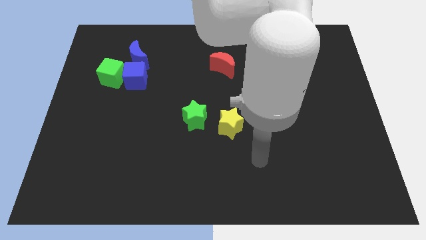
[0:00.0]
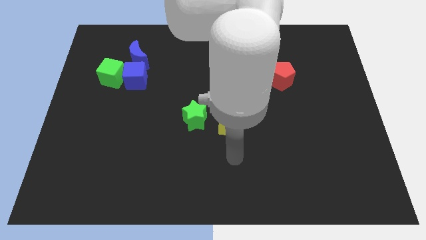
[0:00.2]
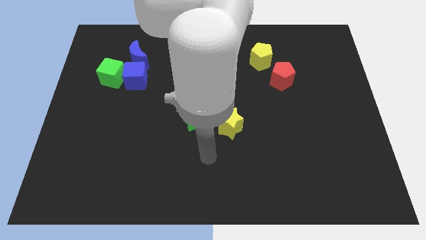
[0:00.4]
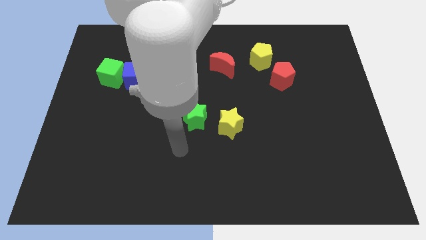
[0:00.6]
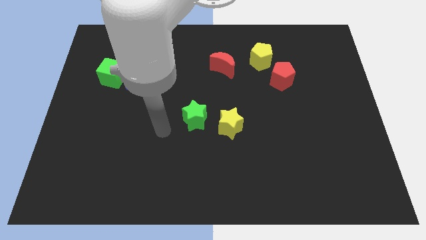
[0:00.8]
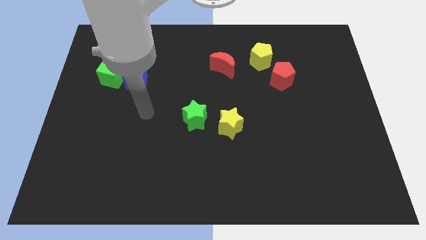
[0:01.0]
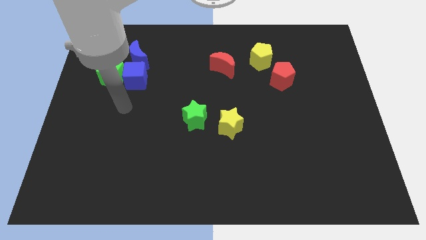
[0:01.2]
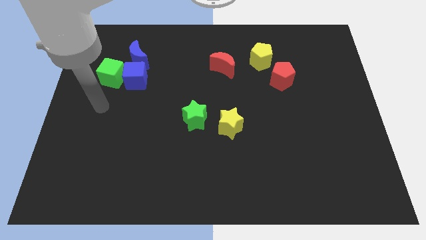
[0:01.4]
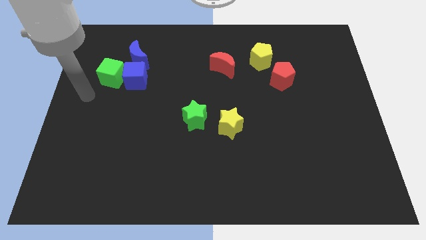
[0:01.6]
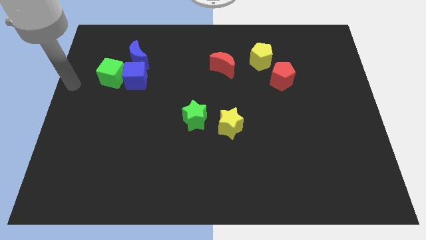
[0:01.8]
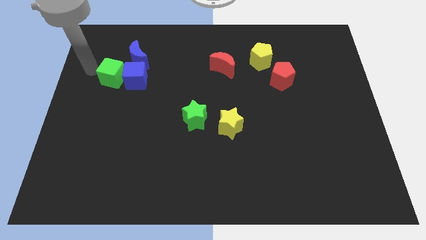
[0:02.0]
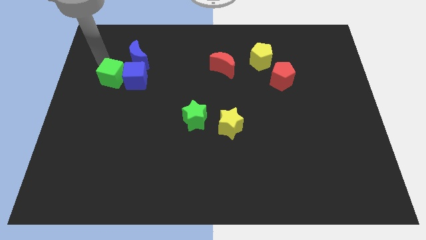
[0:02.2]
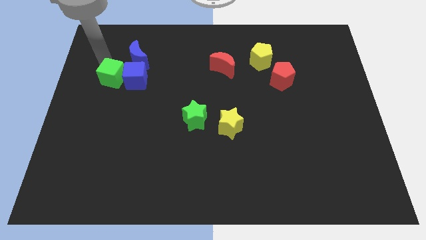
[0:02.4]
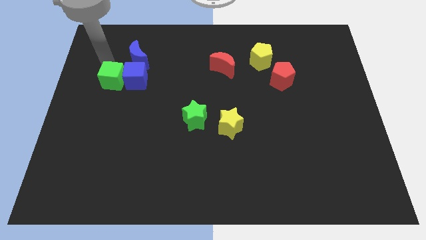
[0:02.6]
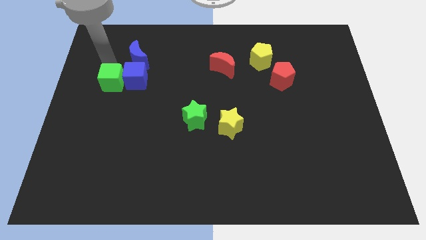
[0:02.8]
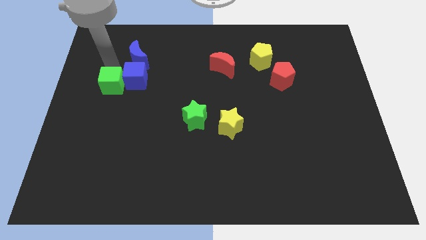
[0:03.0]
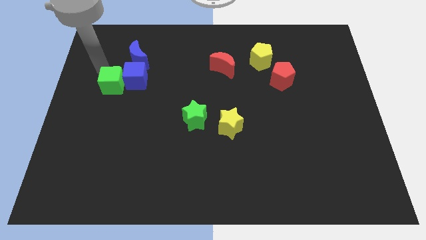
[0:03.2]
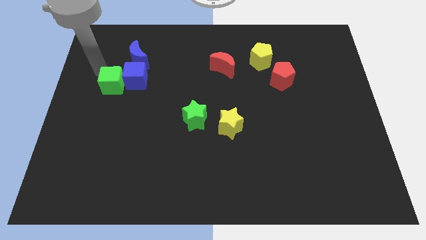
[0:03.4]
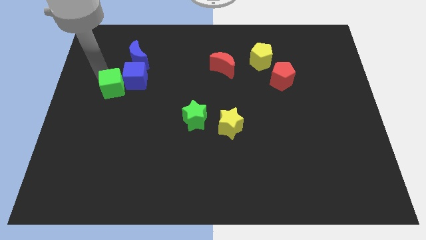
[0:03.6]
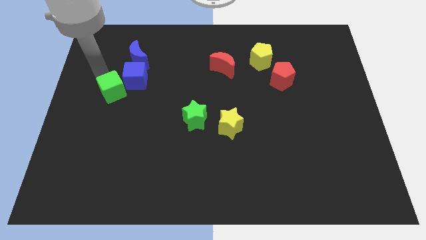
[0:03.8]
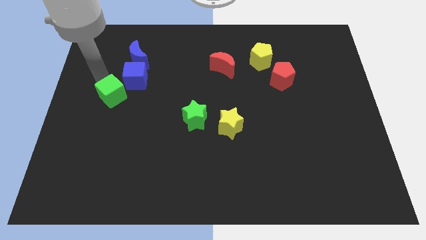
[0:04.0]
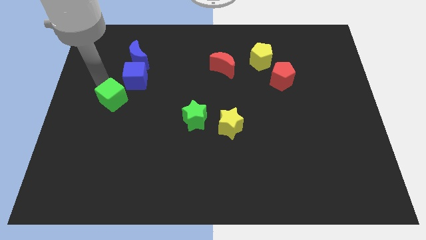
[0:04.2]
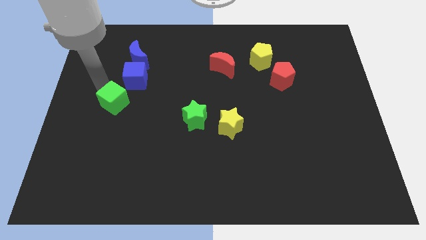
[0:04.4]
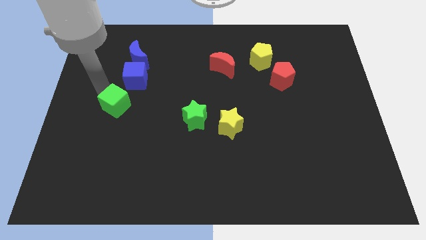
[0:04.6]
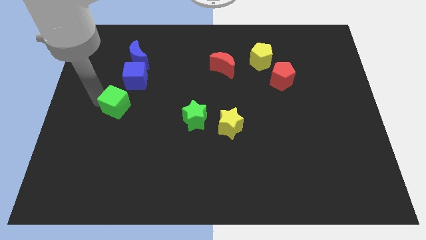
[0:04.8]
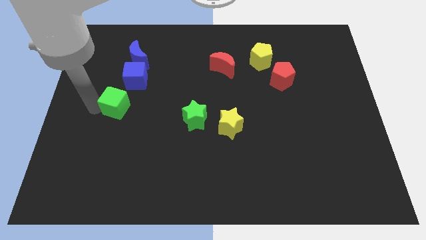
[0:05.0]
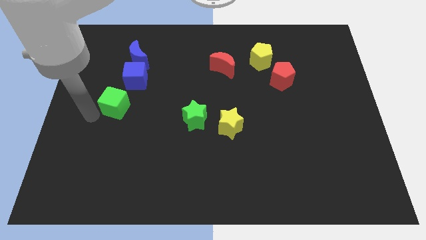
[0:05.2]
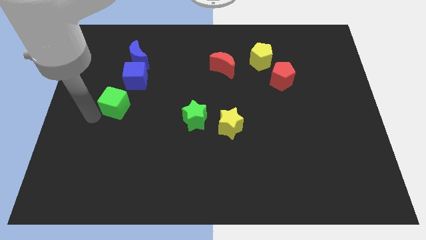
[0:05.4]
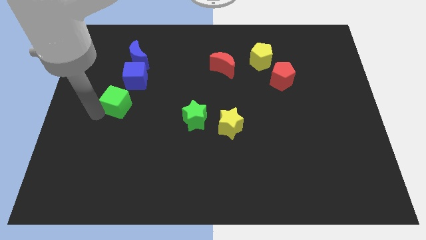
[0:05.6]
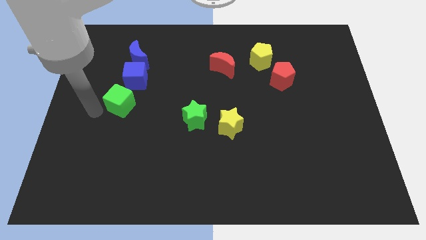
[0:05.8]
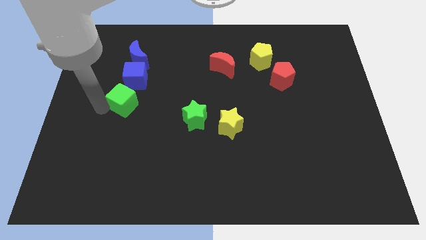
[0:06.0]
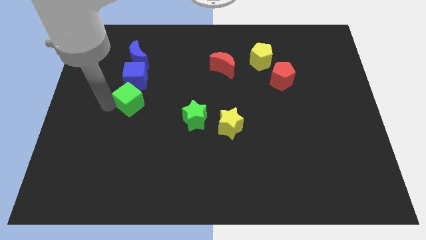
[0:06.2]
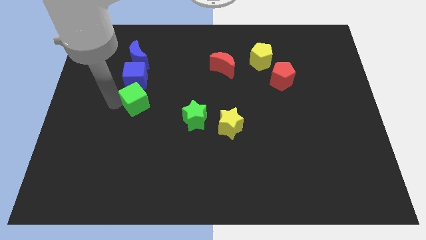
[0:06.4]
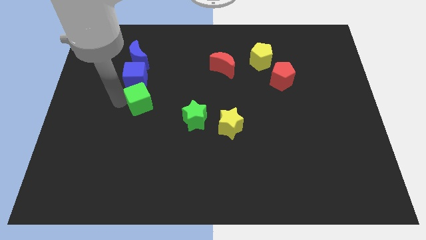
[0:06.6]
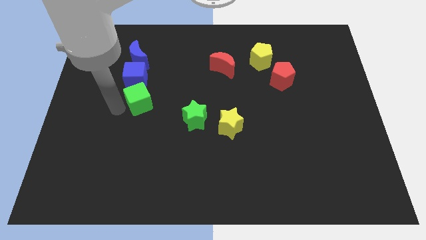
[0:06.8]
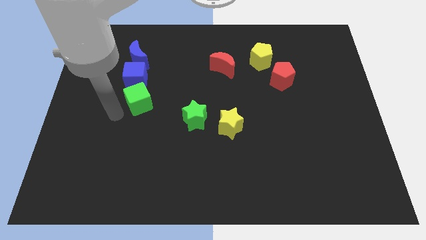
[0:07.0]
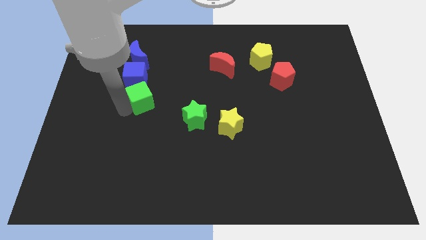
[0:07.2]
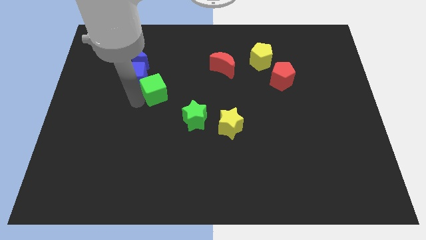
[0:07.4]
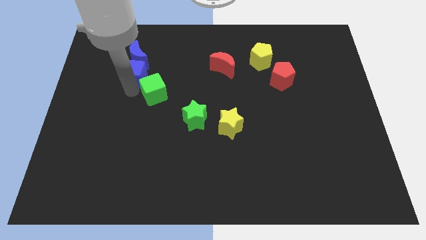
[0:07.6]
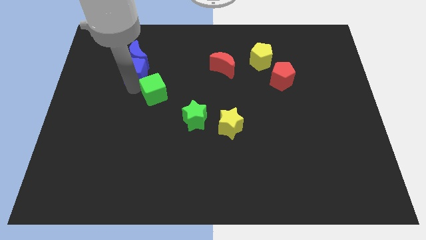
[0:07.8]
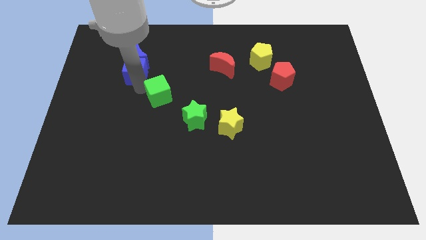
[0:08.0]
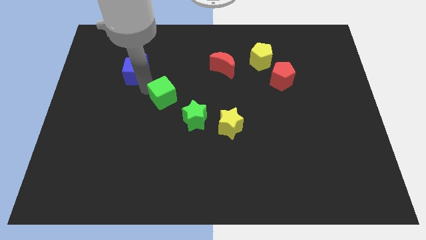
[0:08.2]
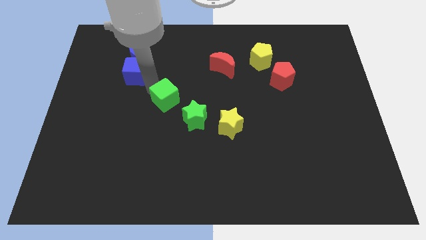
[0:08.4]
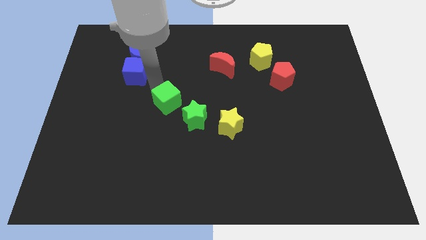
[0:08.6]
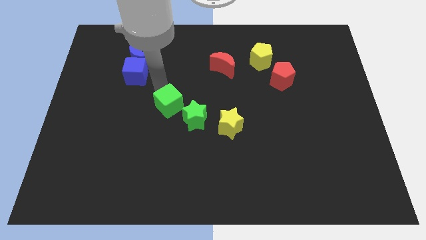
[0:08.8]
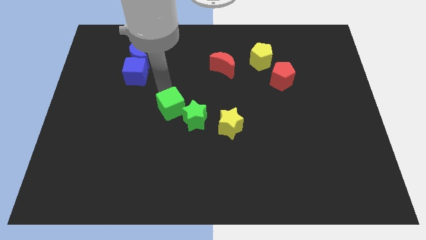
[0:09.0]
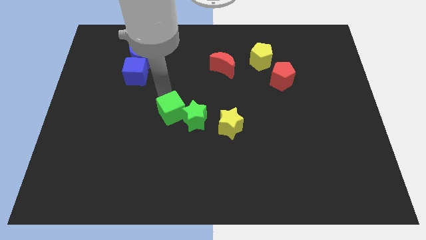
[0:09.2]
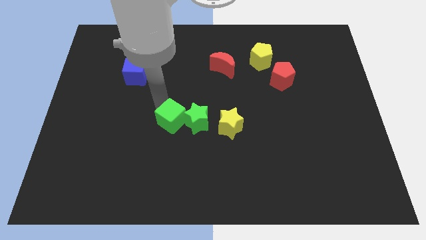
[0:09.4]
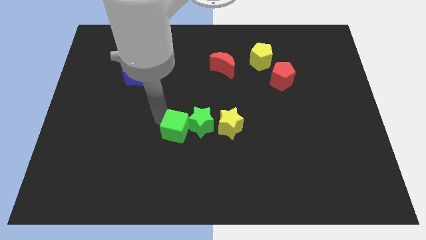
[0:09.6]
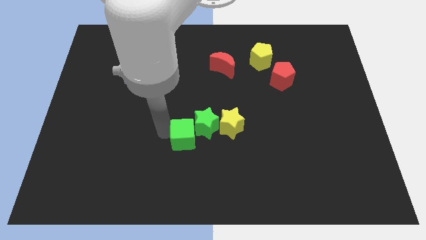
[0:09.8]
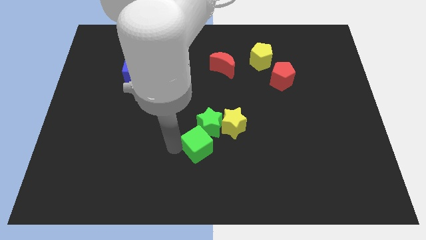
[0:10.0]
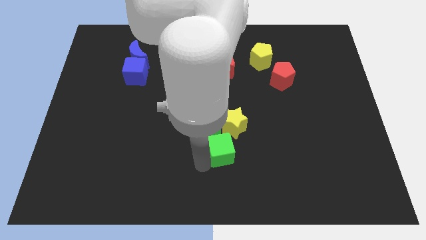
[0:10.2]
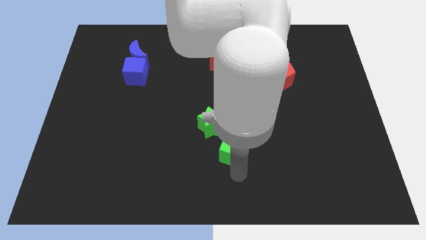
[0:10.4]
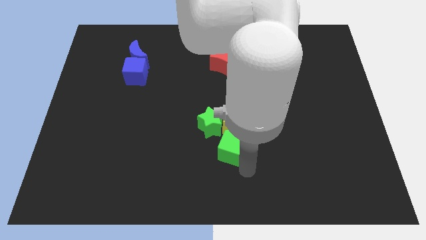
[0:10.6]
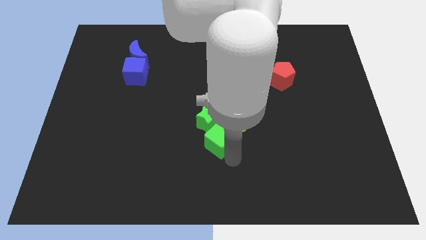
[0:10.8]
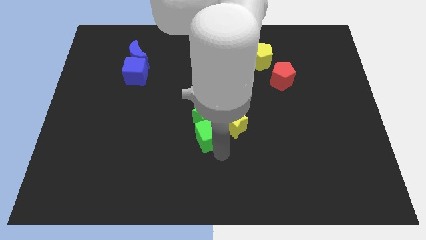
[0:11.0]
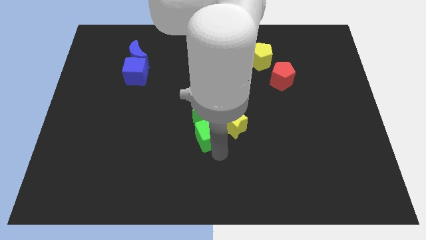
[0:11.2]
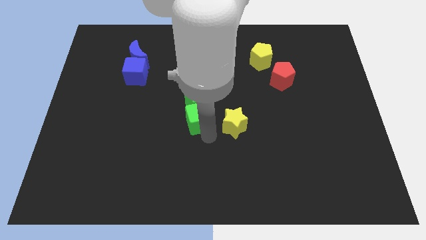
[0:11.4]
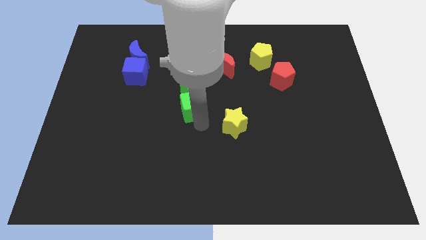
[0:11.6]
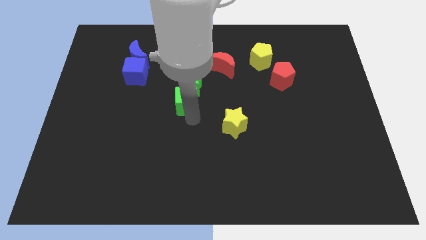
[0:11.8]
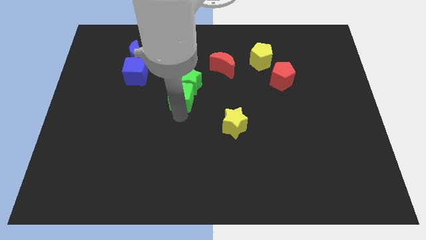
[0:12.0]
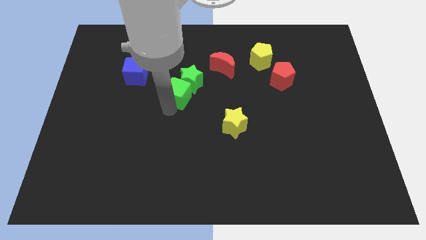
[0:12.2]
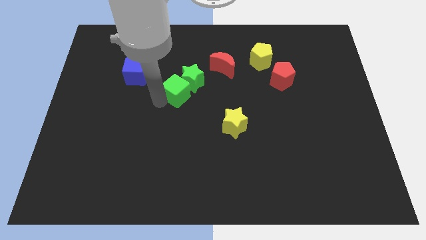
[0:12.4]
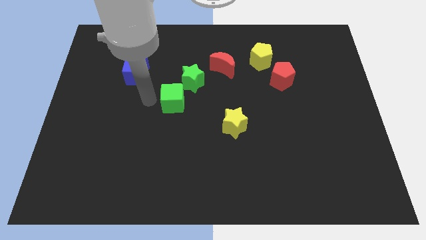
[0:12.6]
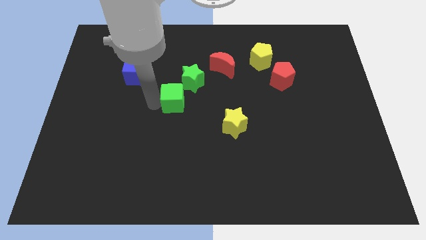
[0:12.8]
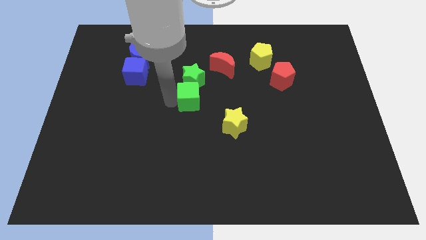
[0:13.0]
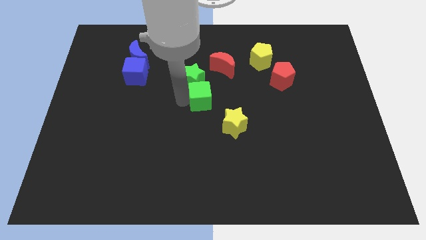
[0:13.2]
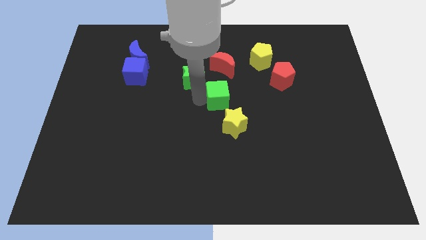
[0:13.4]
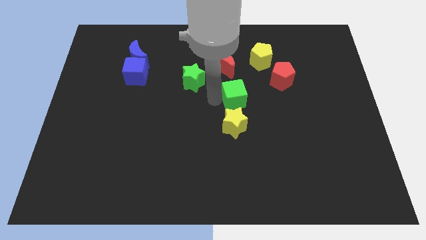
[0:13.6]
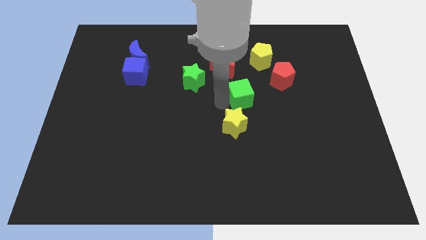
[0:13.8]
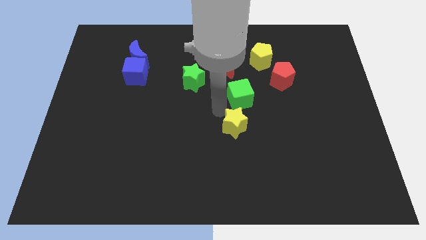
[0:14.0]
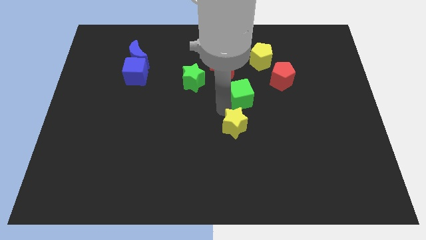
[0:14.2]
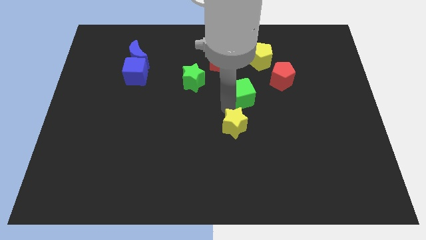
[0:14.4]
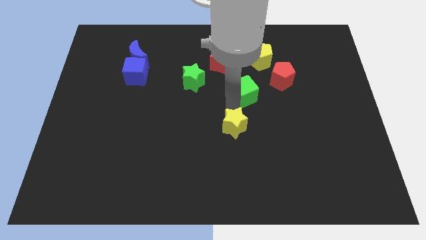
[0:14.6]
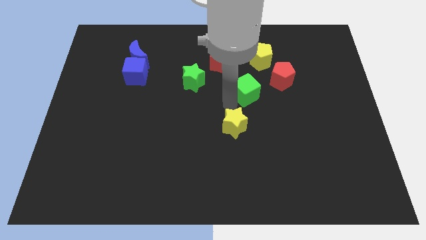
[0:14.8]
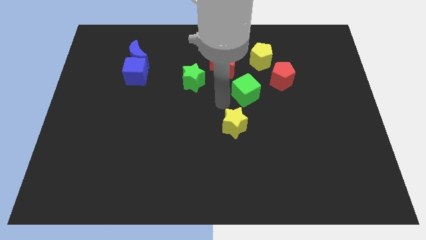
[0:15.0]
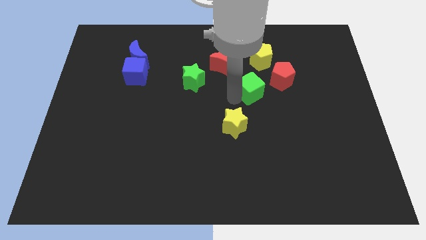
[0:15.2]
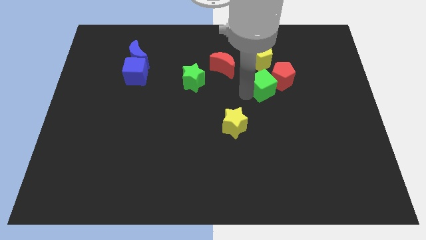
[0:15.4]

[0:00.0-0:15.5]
slide the green cube towards the red pentagon
